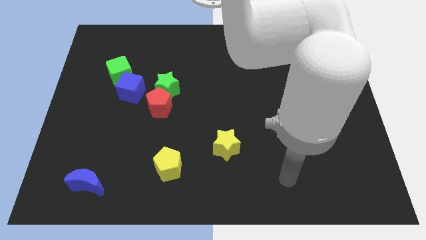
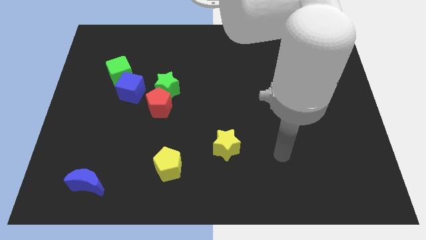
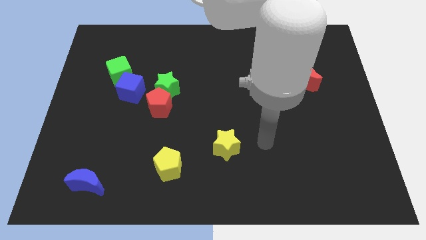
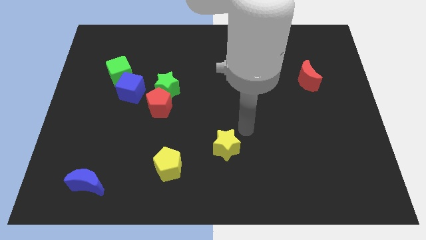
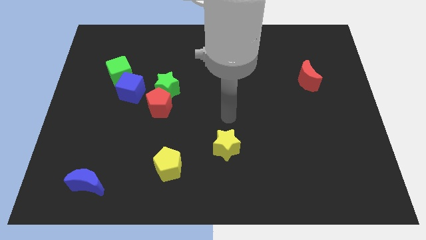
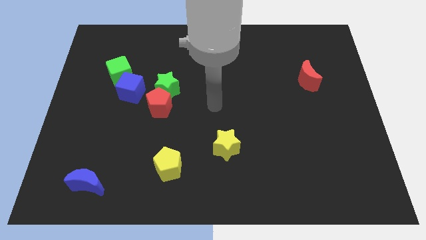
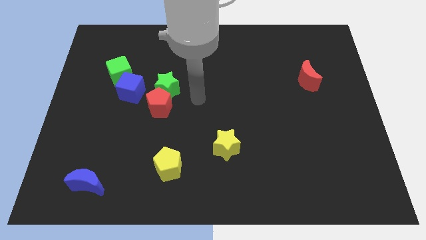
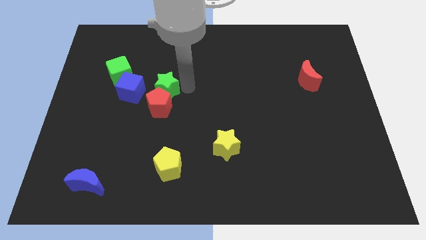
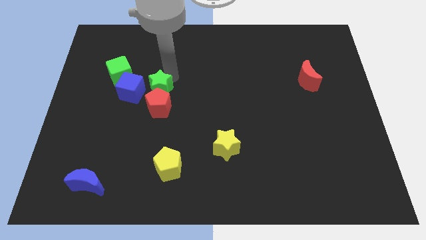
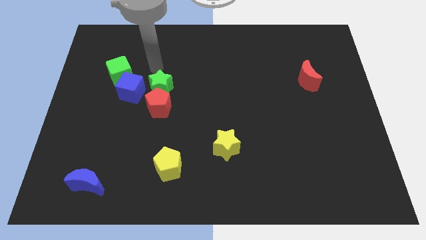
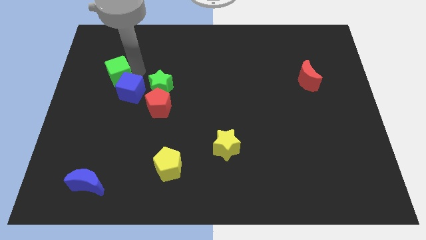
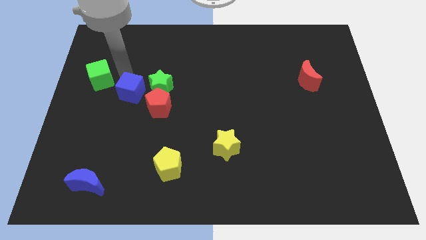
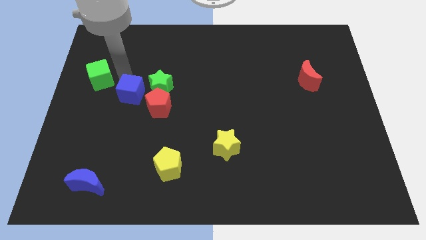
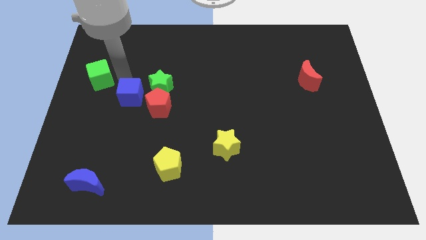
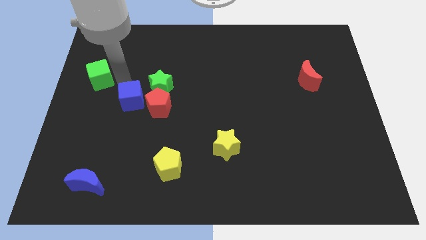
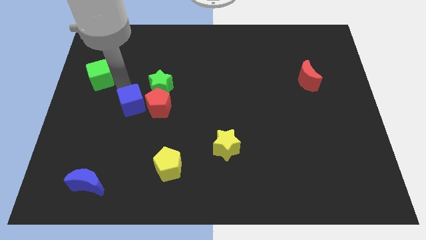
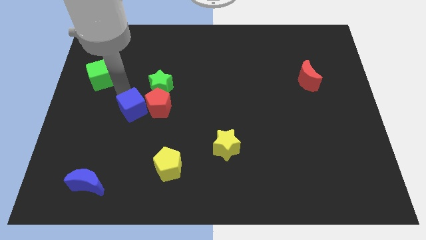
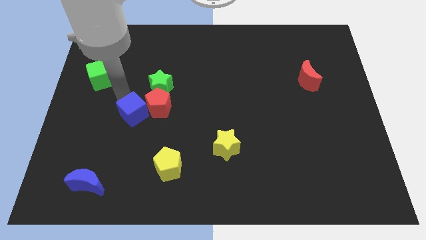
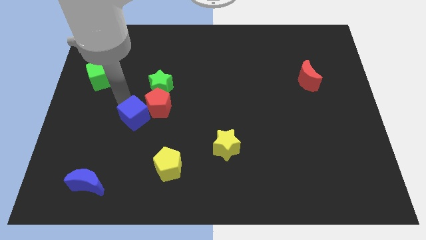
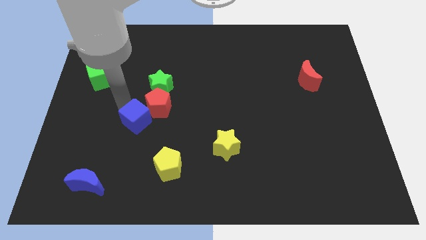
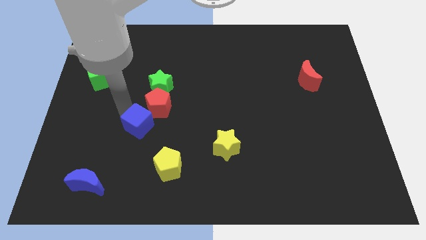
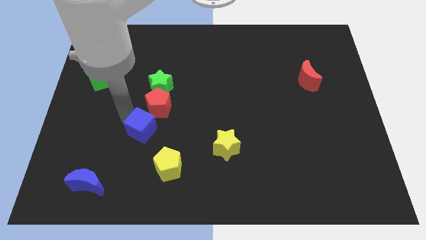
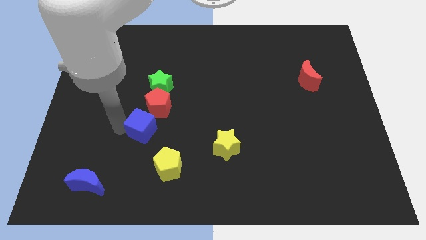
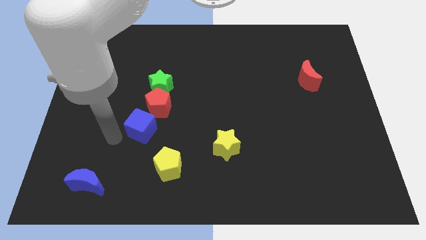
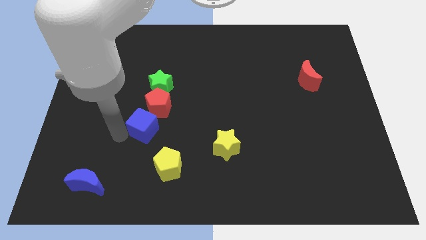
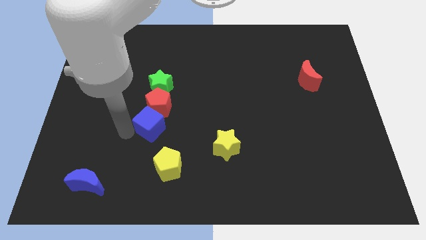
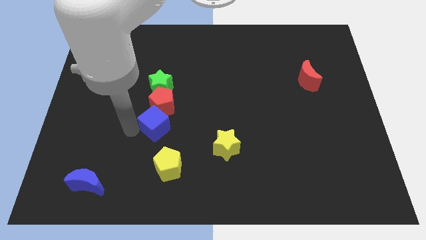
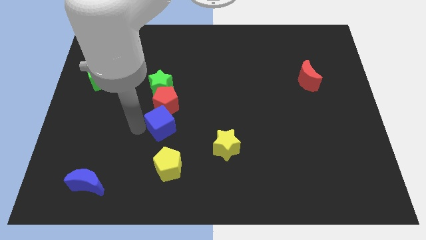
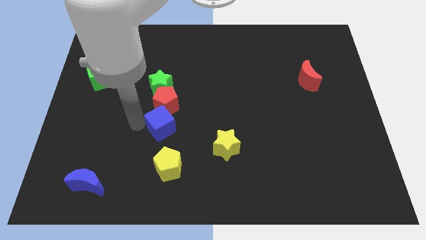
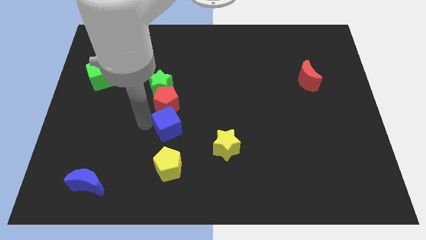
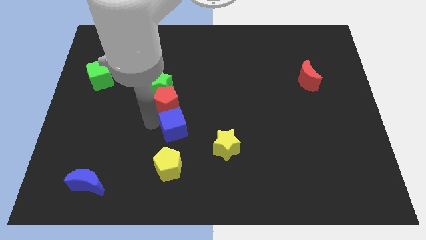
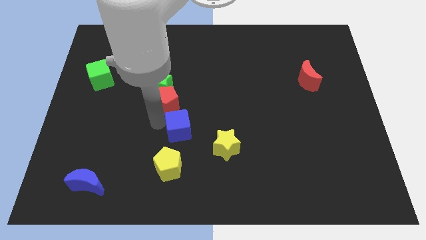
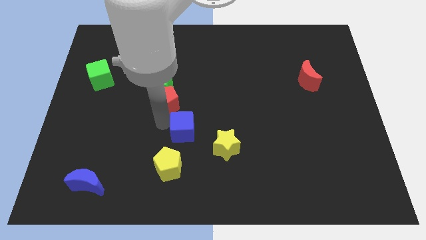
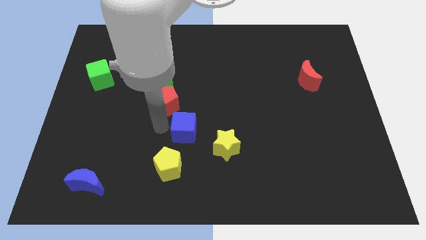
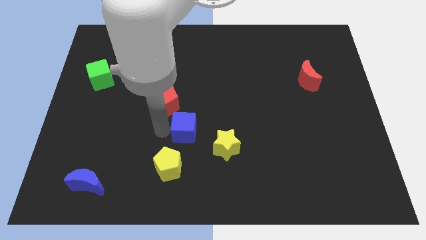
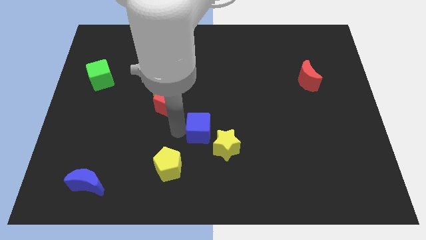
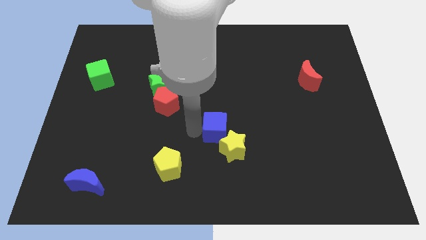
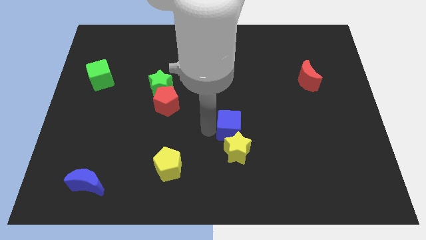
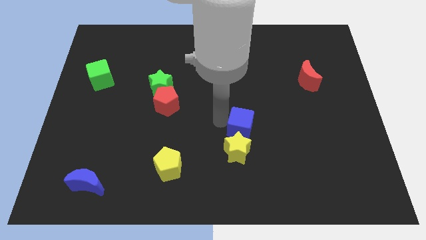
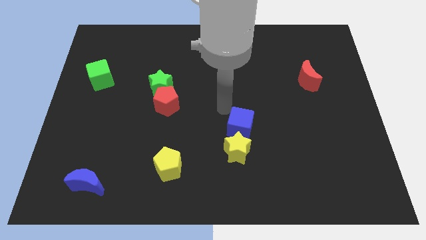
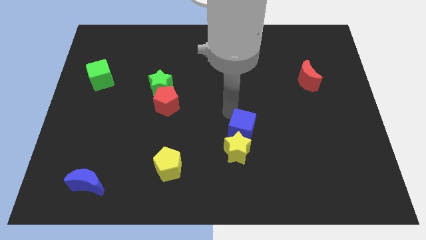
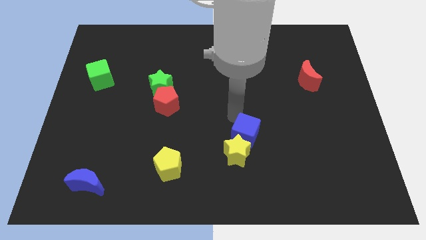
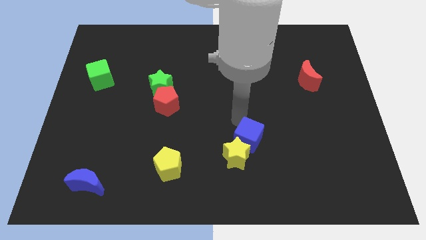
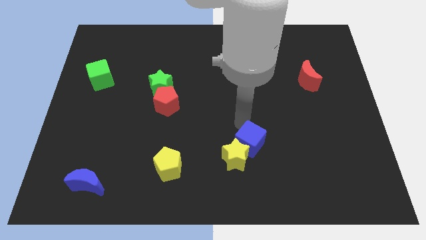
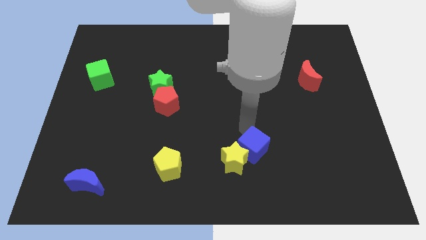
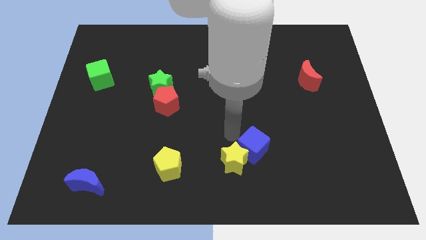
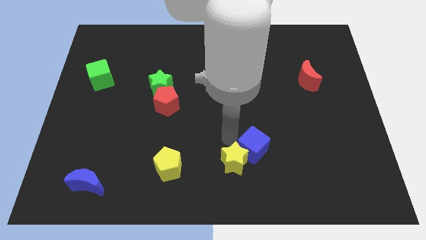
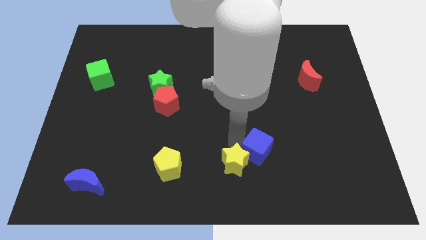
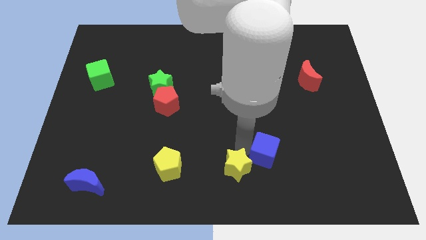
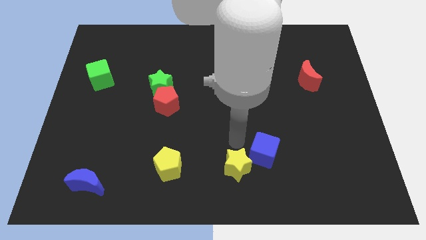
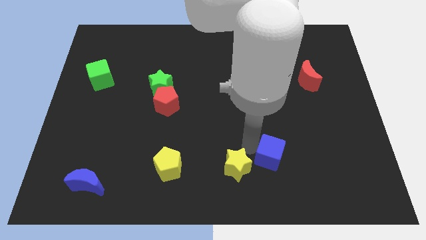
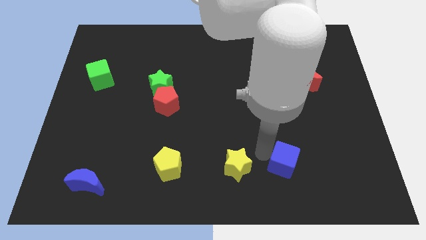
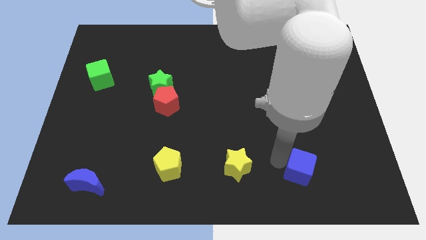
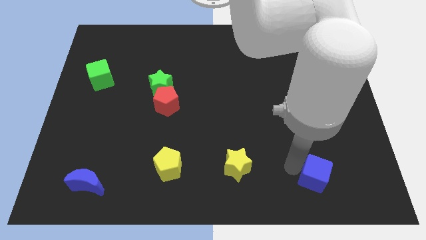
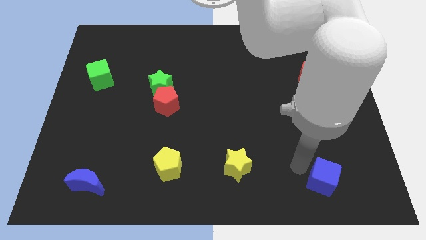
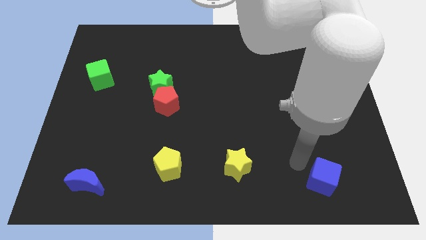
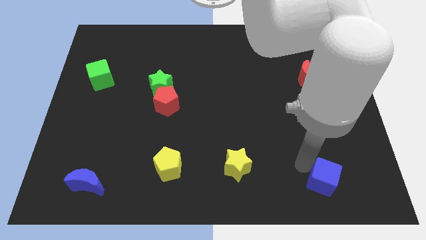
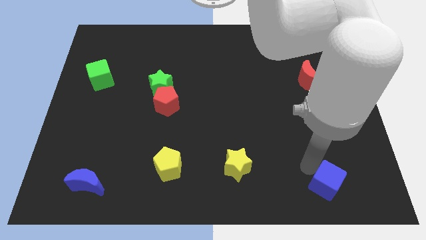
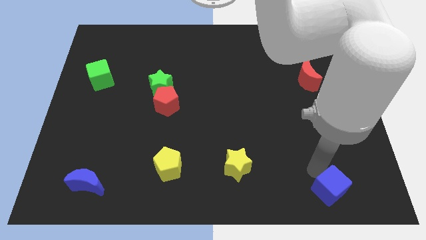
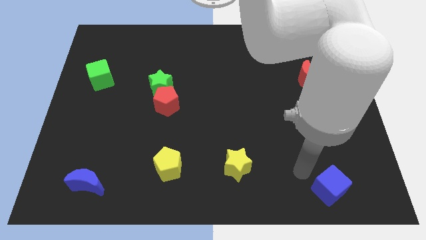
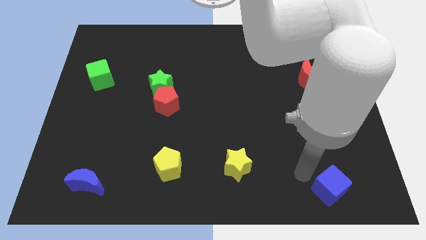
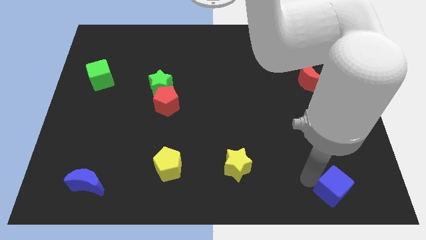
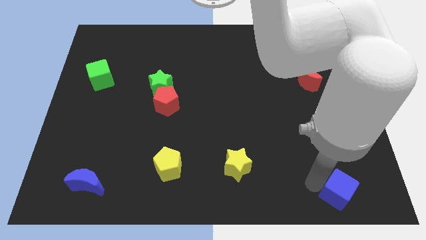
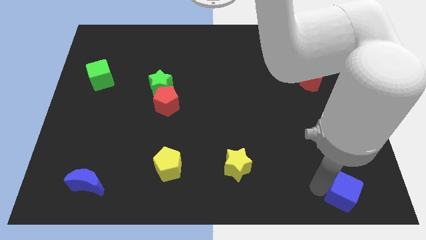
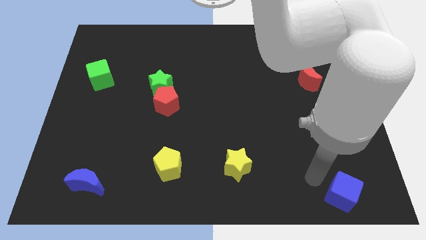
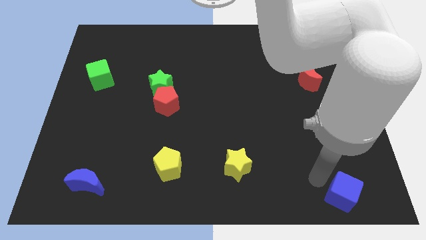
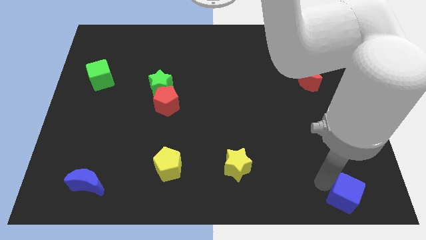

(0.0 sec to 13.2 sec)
move the blue cube to the lower right corner

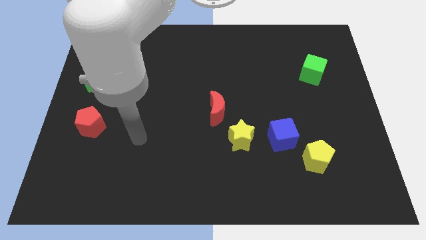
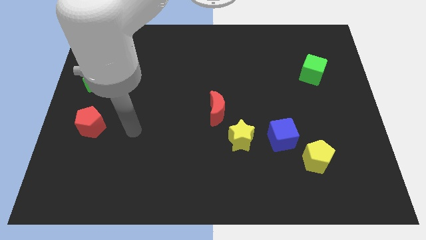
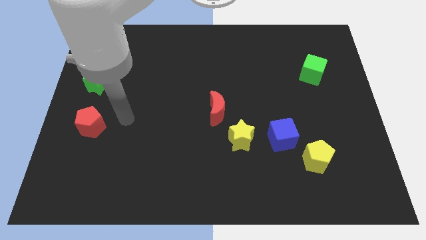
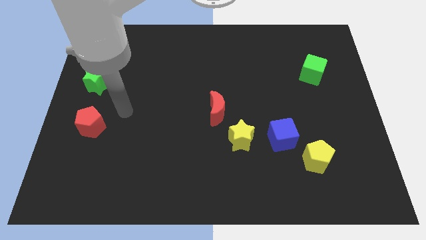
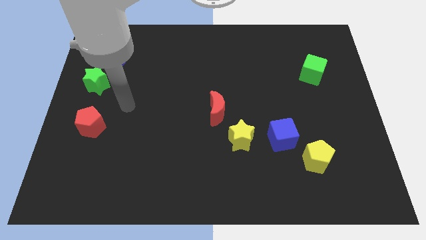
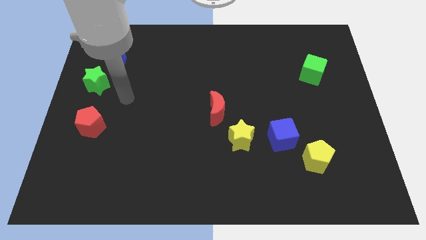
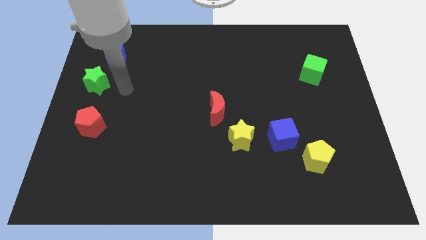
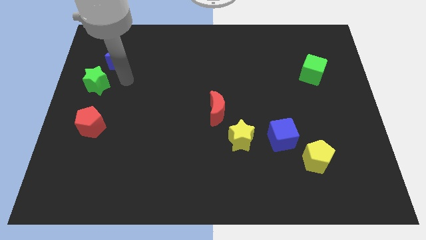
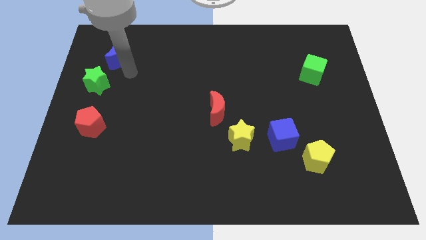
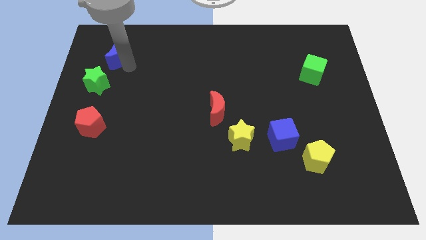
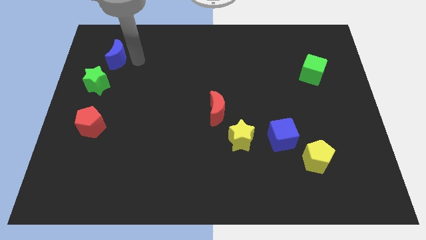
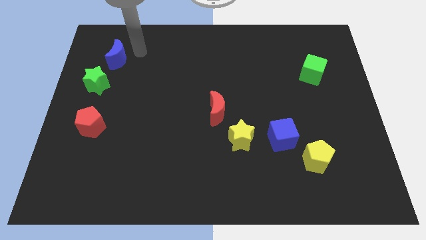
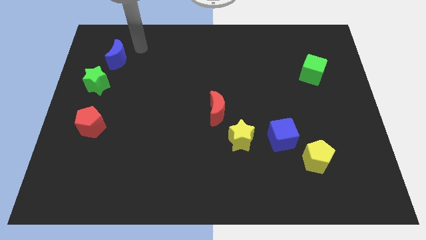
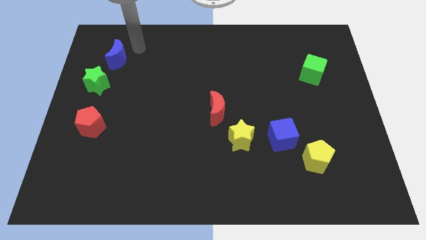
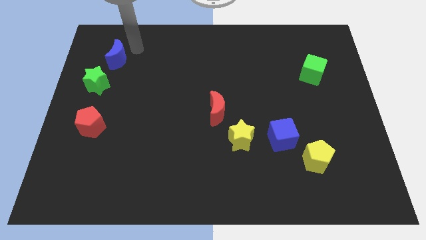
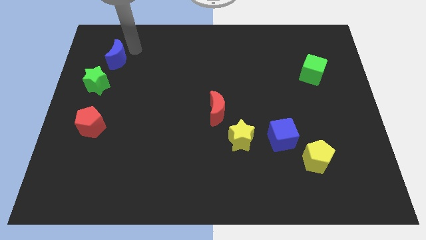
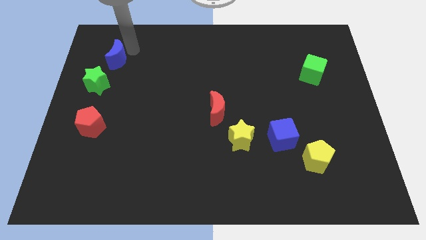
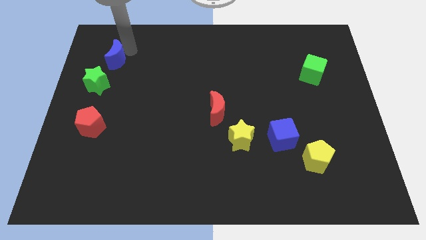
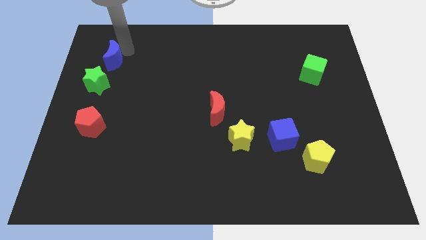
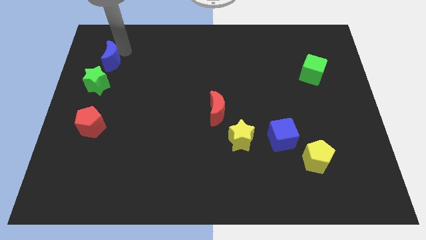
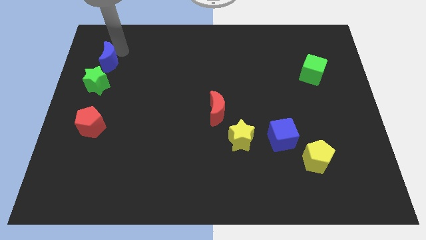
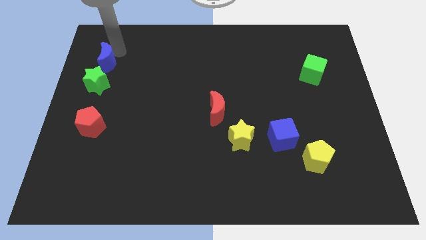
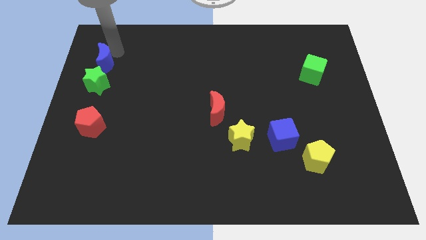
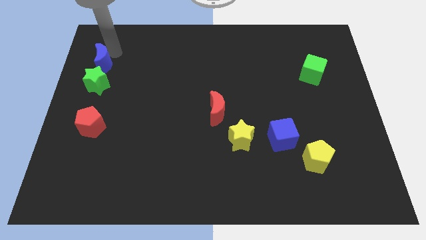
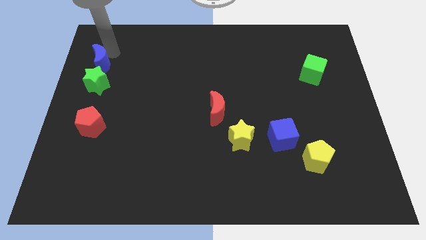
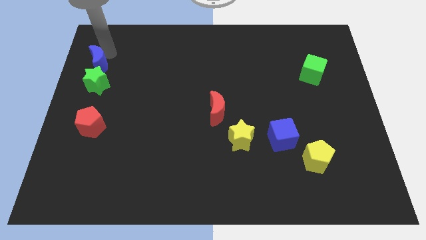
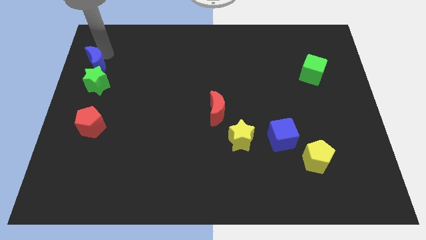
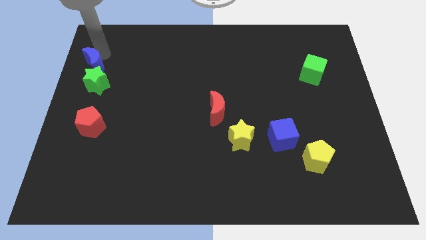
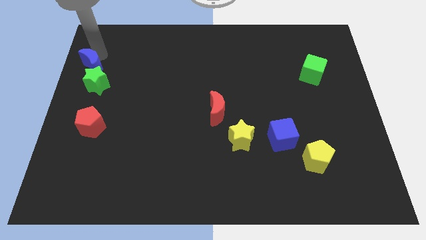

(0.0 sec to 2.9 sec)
push the blue moon to the center left
